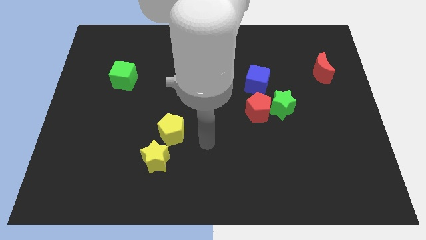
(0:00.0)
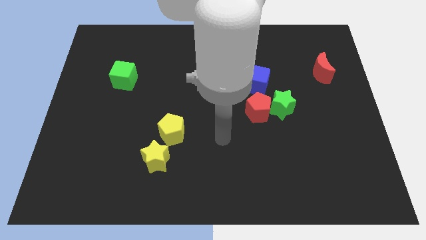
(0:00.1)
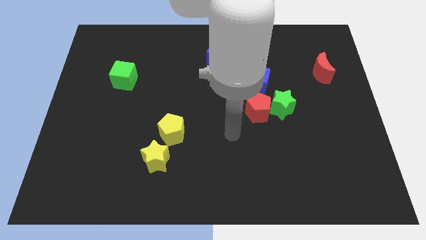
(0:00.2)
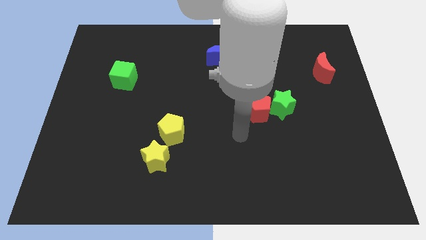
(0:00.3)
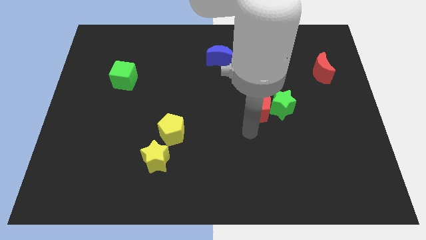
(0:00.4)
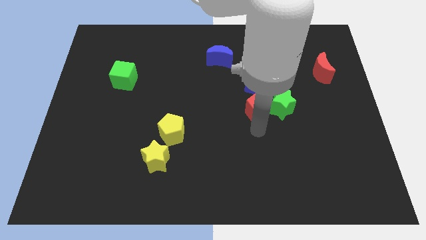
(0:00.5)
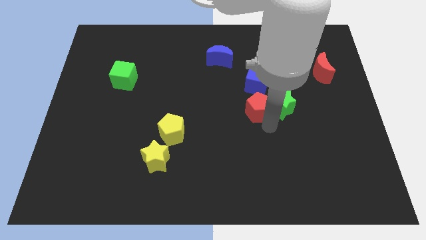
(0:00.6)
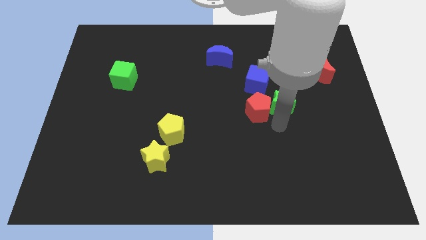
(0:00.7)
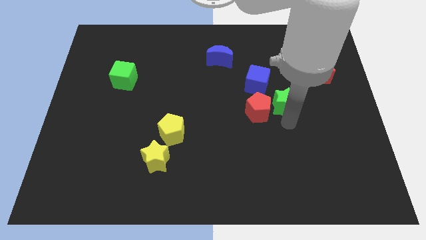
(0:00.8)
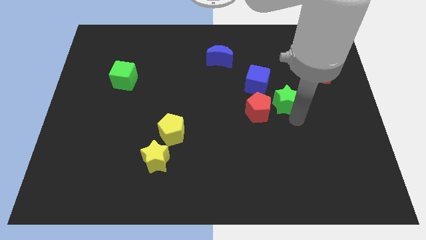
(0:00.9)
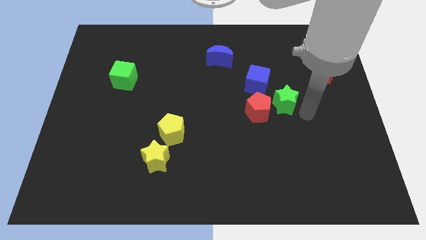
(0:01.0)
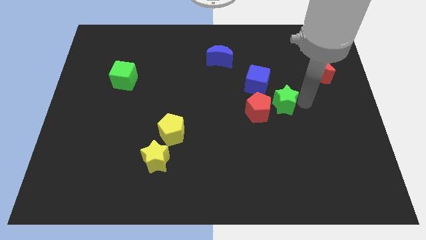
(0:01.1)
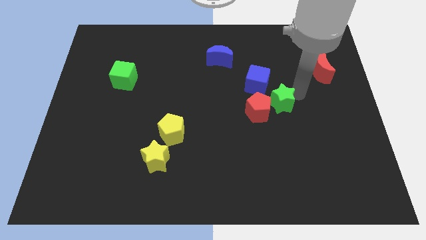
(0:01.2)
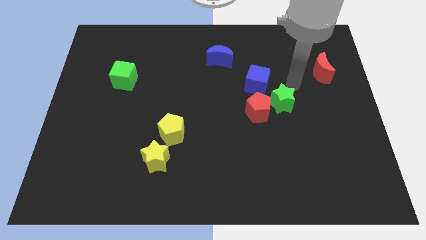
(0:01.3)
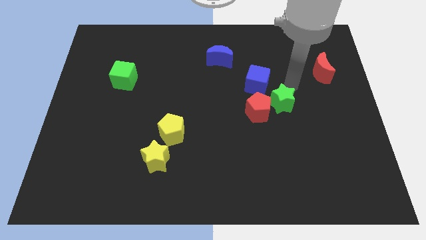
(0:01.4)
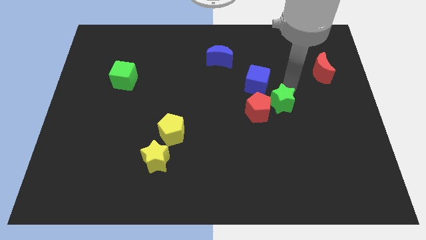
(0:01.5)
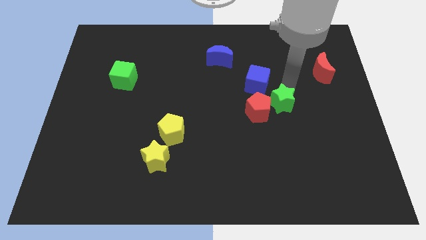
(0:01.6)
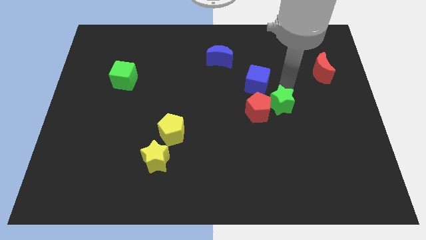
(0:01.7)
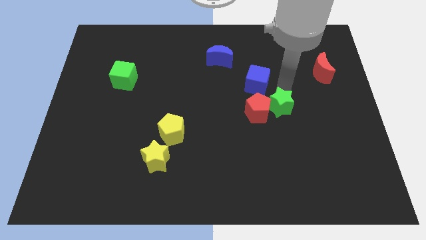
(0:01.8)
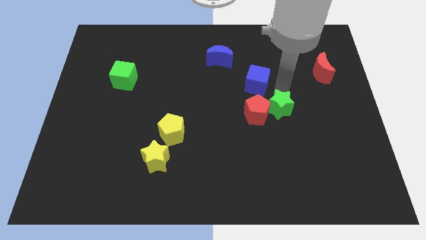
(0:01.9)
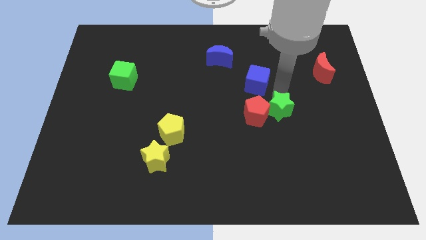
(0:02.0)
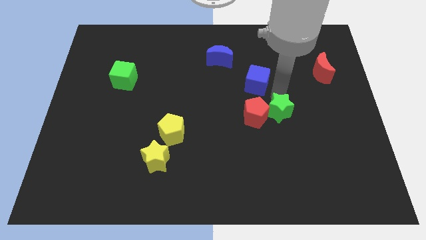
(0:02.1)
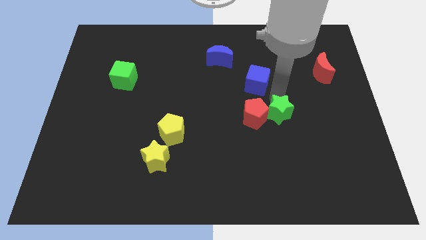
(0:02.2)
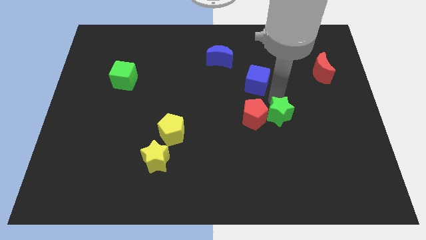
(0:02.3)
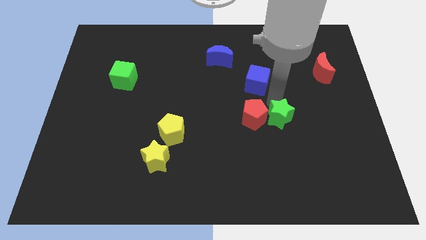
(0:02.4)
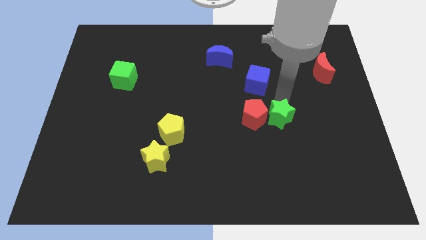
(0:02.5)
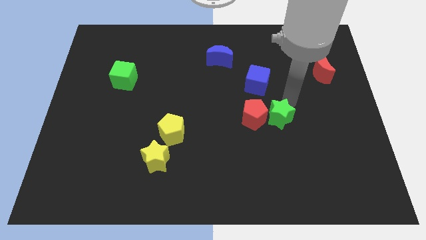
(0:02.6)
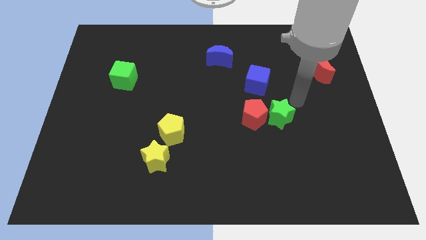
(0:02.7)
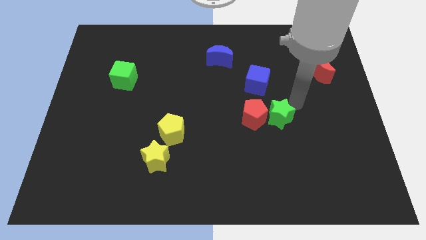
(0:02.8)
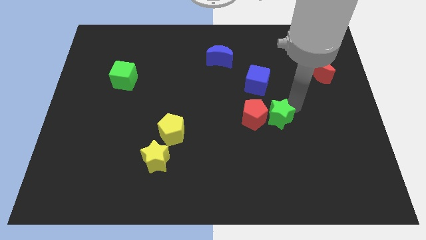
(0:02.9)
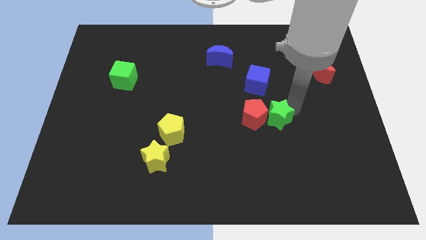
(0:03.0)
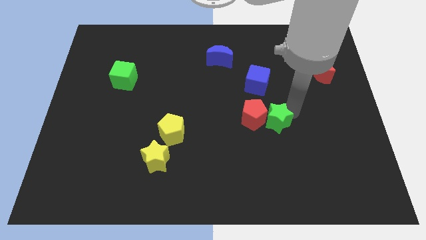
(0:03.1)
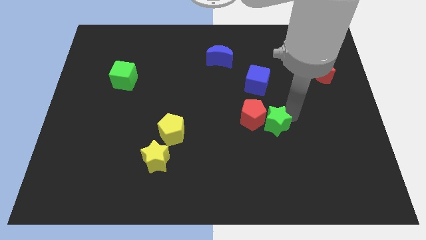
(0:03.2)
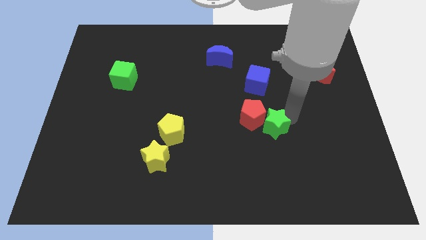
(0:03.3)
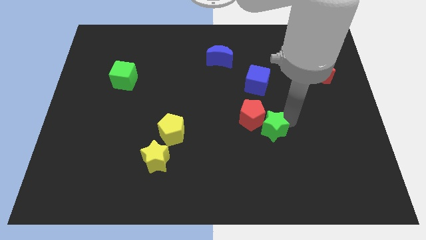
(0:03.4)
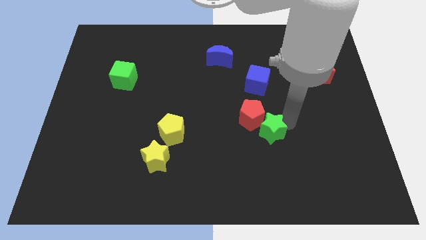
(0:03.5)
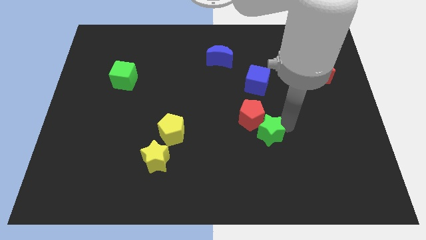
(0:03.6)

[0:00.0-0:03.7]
slightly move the green star downwards and then to the left

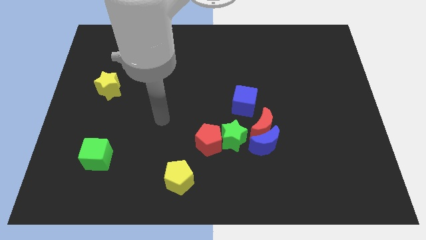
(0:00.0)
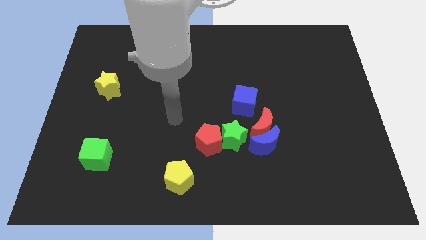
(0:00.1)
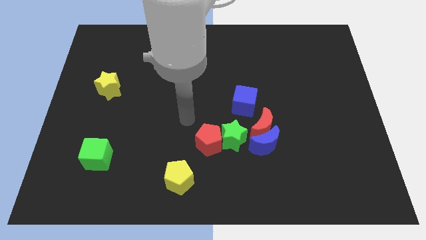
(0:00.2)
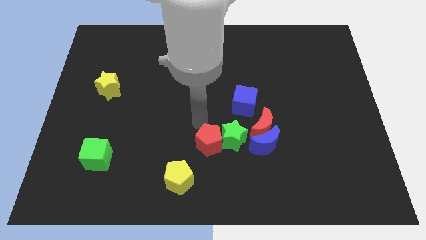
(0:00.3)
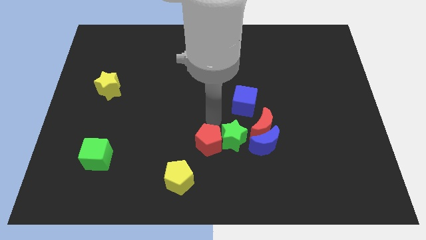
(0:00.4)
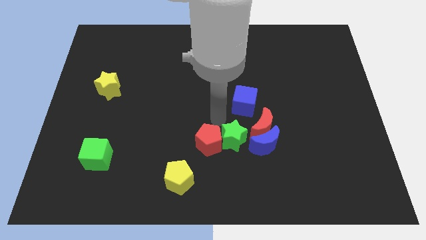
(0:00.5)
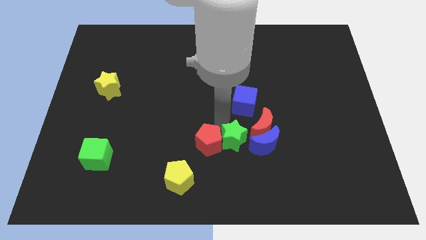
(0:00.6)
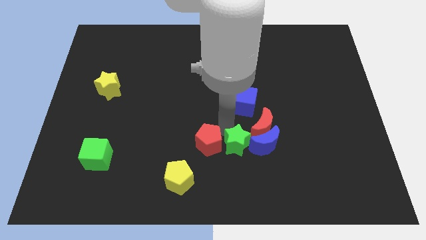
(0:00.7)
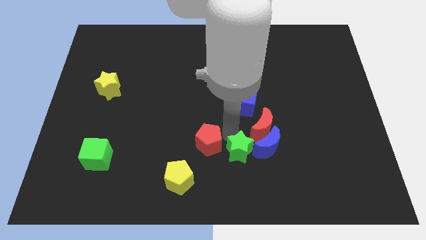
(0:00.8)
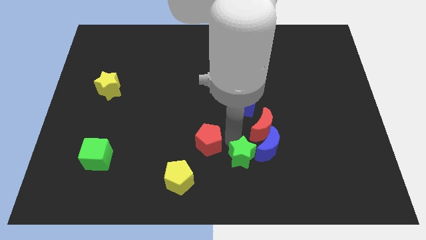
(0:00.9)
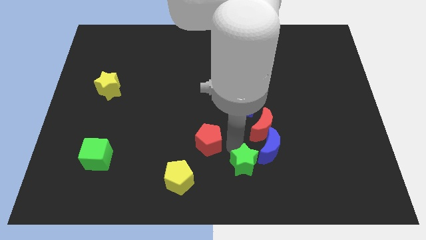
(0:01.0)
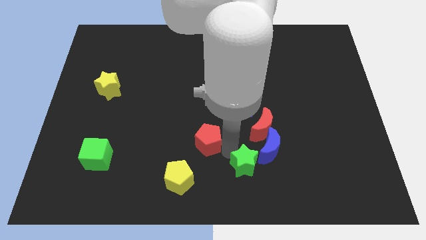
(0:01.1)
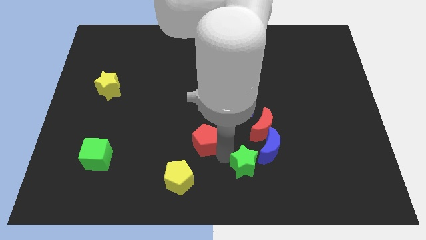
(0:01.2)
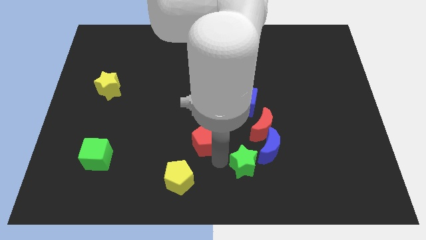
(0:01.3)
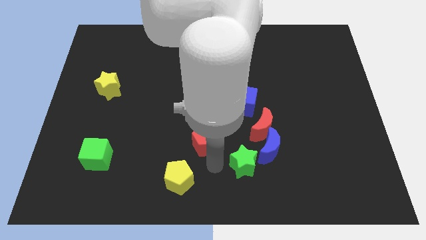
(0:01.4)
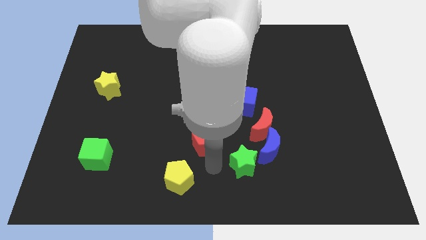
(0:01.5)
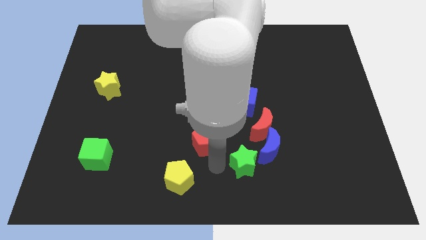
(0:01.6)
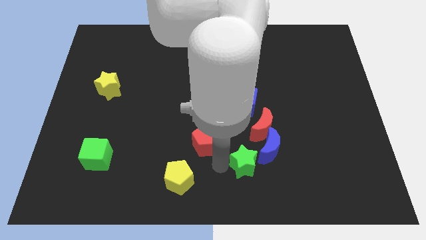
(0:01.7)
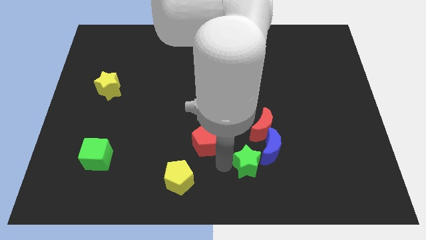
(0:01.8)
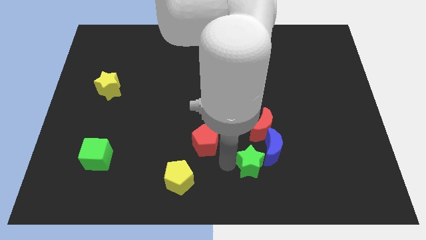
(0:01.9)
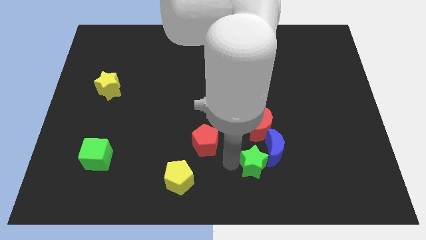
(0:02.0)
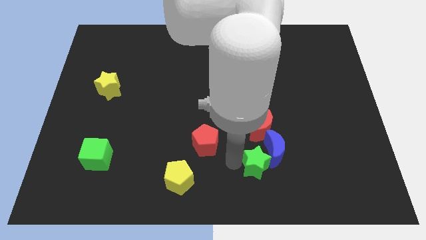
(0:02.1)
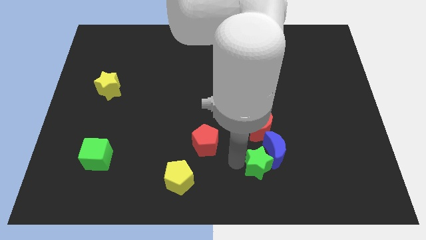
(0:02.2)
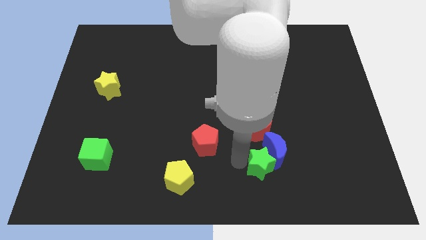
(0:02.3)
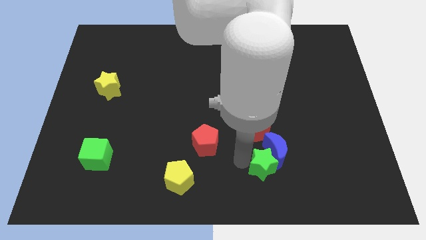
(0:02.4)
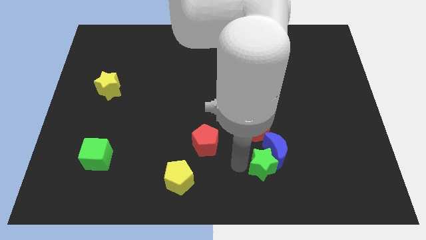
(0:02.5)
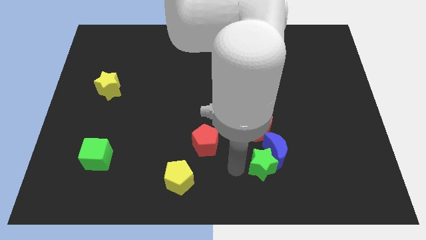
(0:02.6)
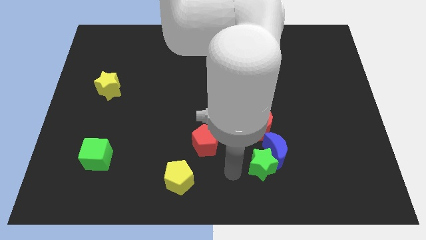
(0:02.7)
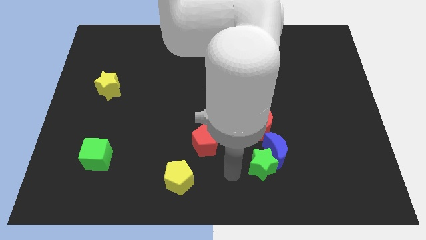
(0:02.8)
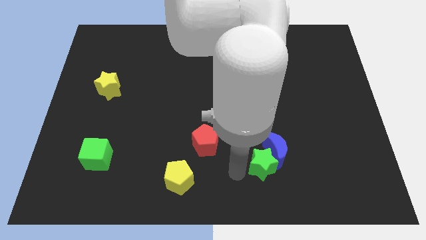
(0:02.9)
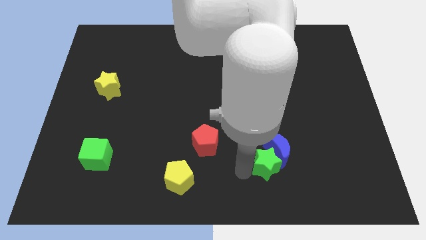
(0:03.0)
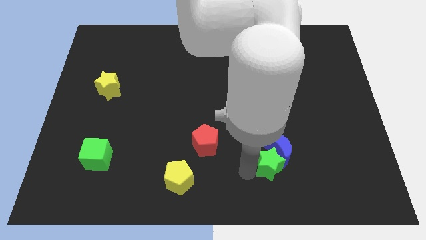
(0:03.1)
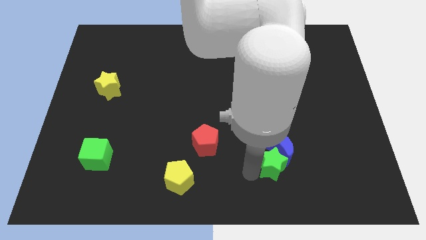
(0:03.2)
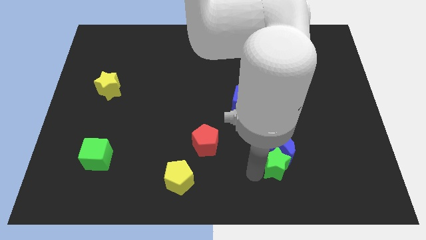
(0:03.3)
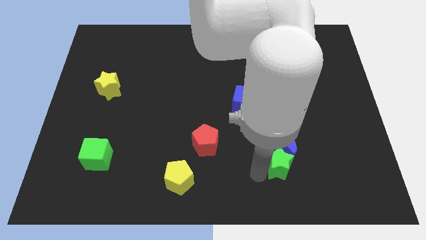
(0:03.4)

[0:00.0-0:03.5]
slightly push the green star right

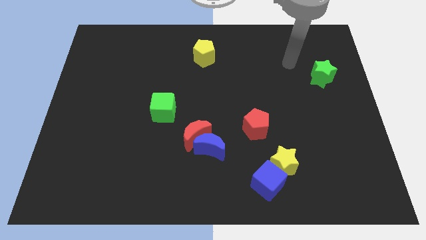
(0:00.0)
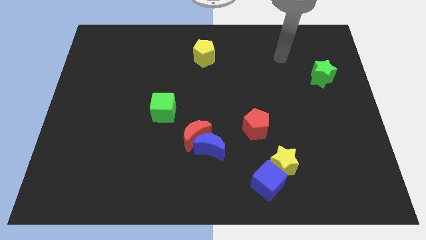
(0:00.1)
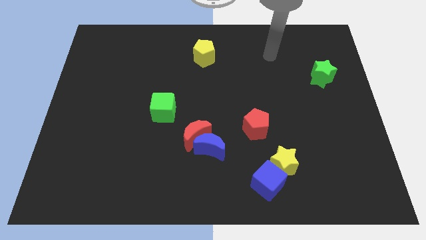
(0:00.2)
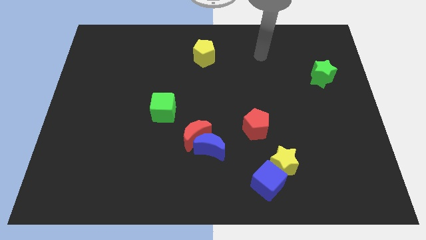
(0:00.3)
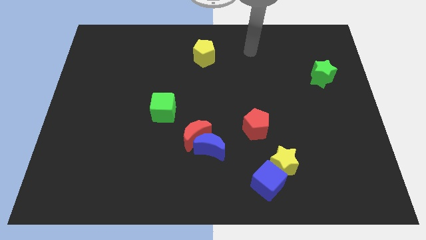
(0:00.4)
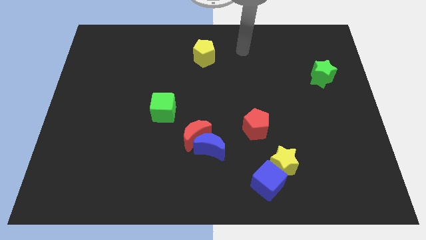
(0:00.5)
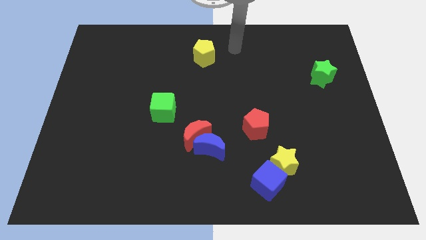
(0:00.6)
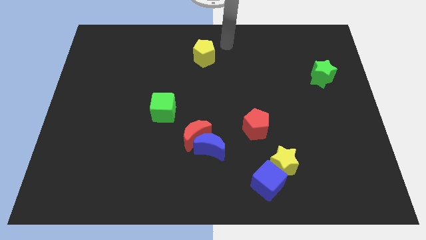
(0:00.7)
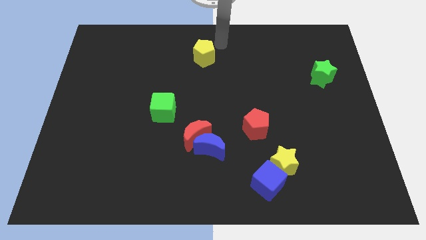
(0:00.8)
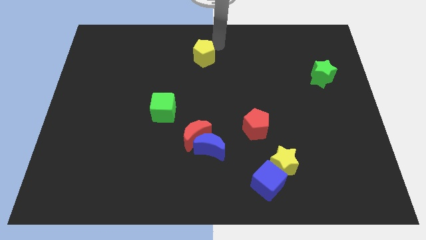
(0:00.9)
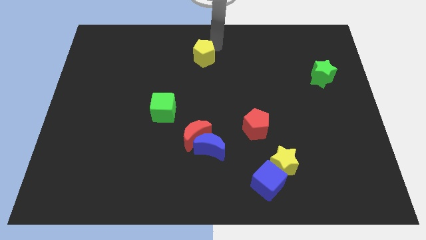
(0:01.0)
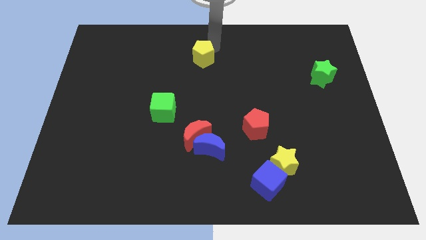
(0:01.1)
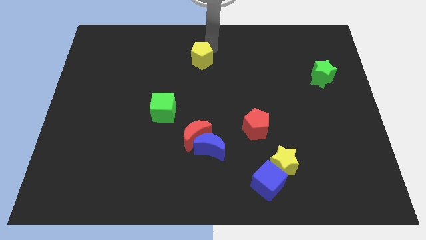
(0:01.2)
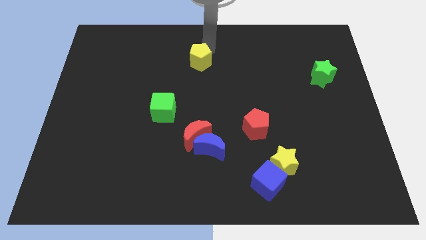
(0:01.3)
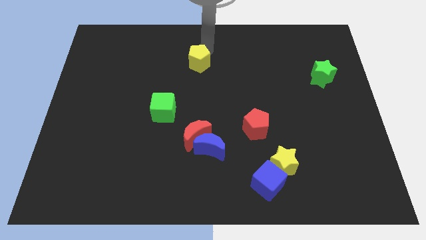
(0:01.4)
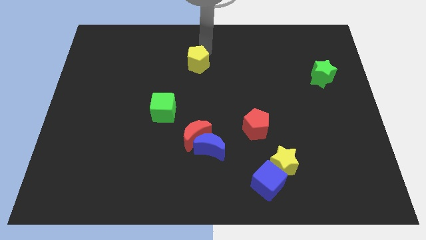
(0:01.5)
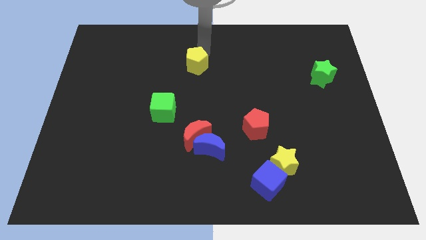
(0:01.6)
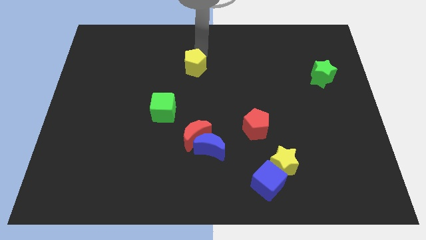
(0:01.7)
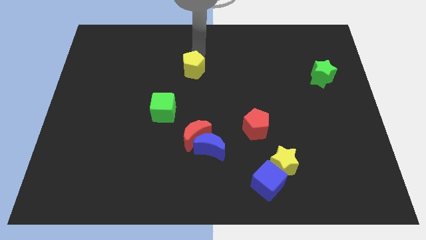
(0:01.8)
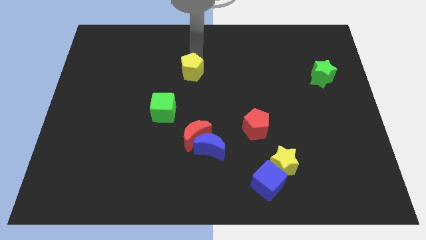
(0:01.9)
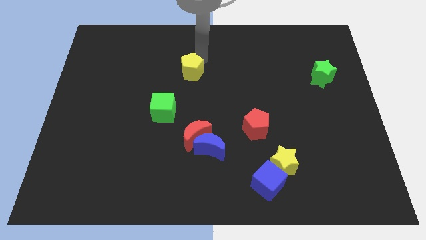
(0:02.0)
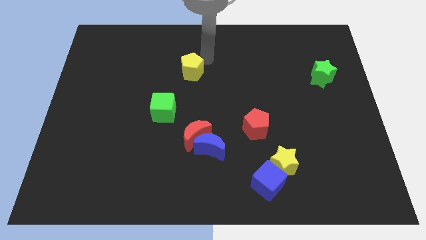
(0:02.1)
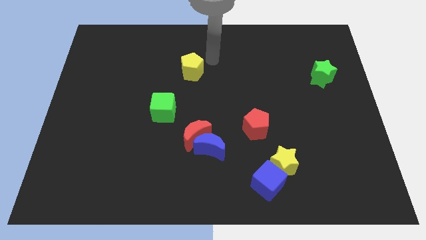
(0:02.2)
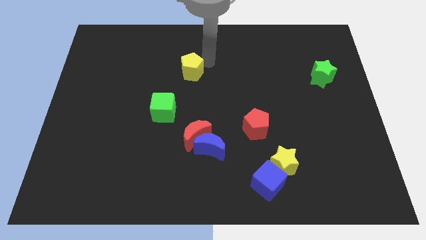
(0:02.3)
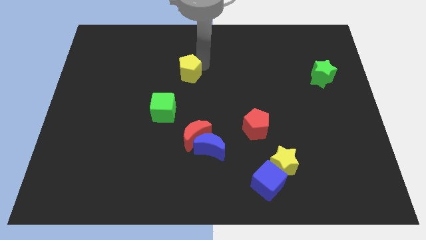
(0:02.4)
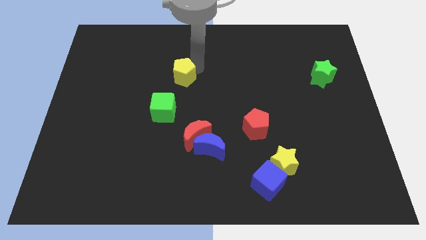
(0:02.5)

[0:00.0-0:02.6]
slightly push the yellow pentagon downwards and then to the left
